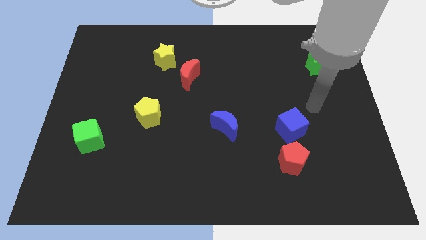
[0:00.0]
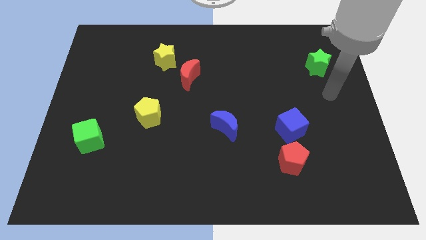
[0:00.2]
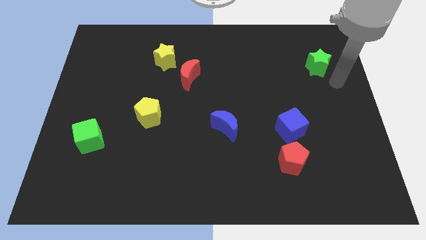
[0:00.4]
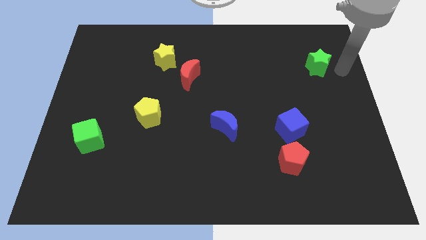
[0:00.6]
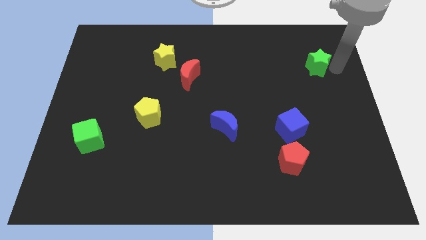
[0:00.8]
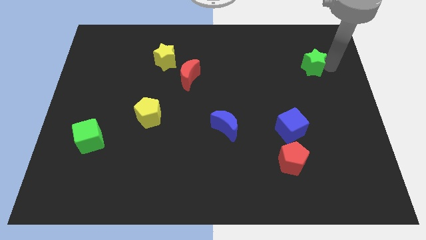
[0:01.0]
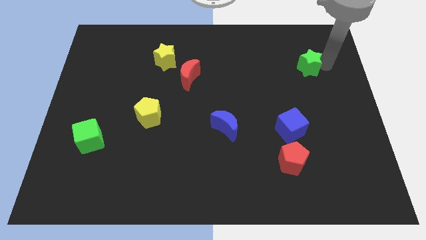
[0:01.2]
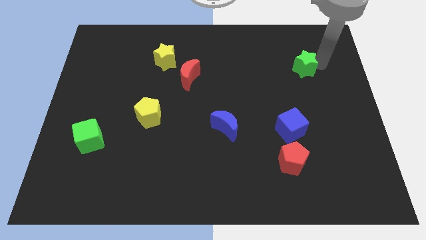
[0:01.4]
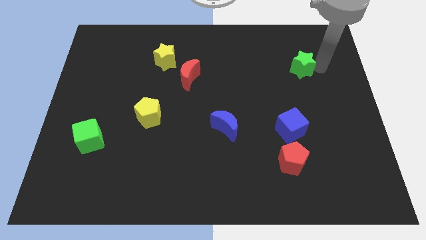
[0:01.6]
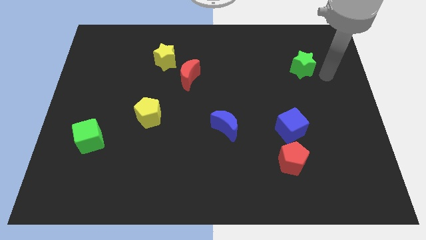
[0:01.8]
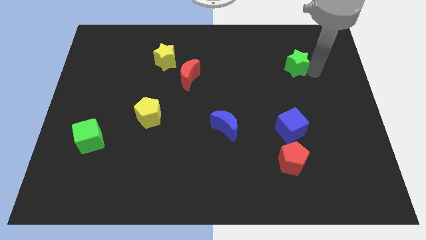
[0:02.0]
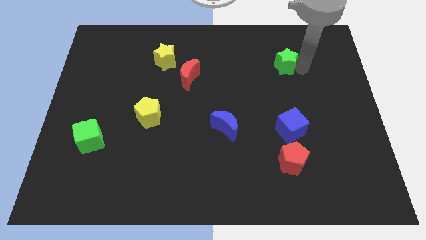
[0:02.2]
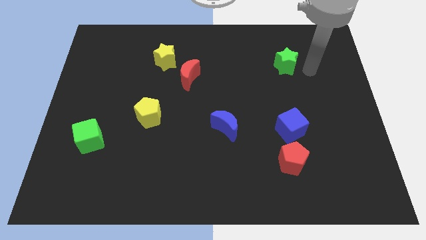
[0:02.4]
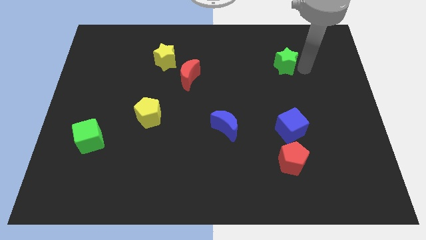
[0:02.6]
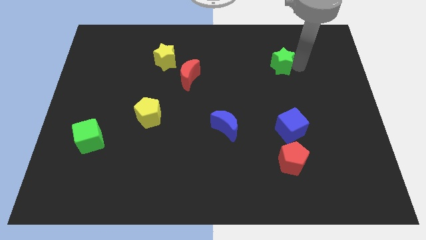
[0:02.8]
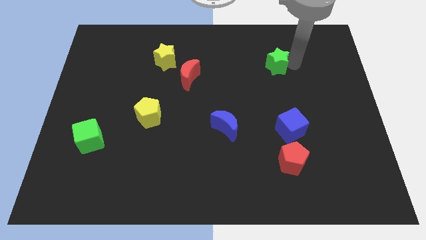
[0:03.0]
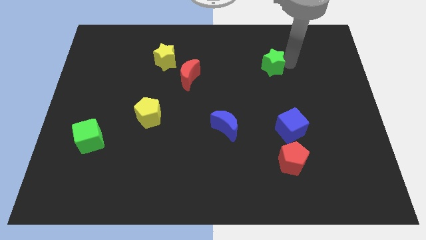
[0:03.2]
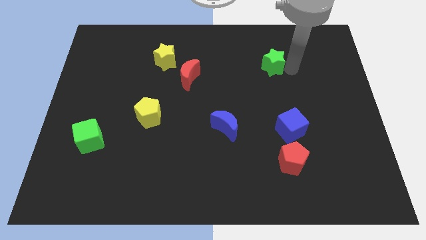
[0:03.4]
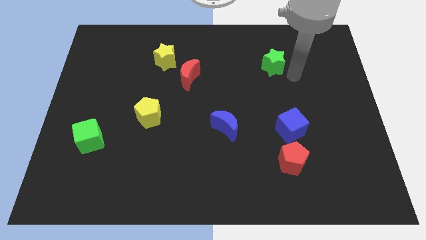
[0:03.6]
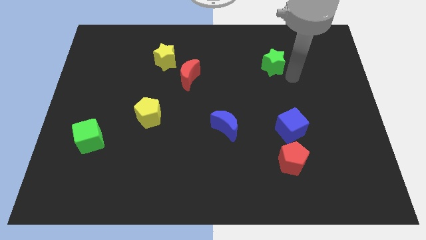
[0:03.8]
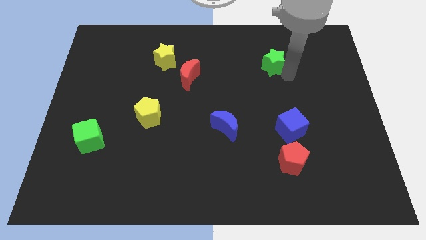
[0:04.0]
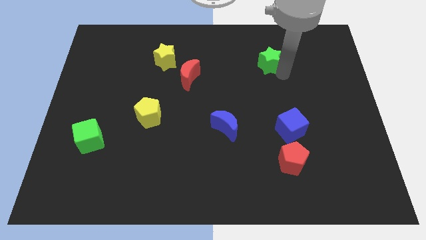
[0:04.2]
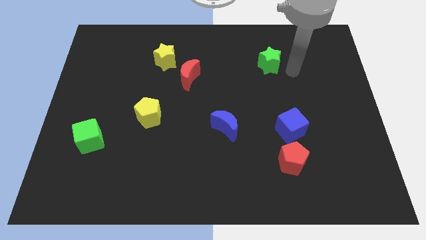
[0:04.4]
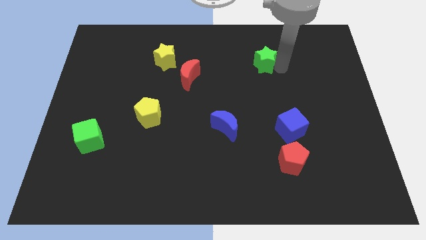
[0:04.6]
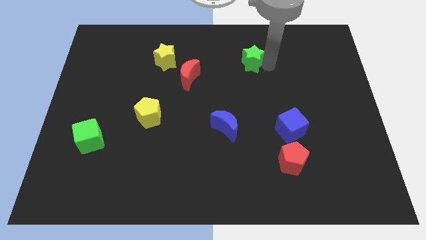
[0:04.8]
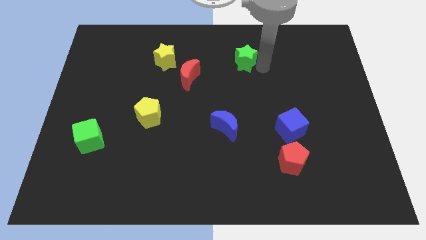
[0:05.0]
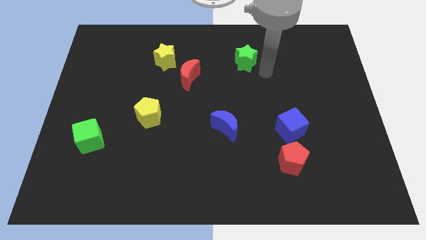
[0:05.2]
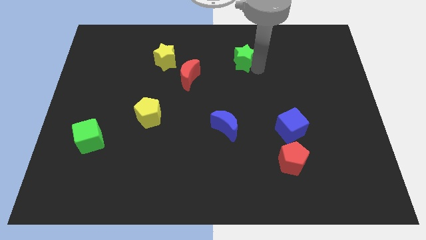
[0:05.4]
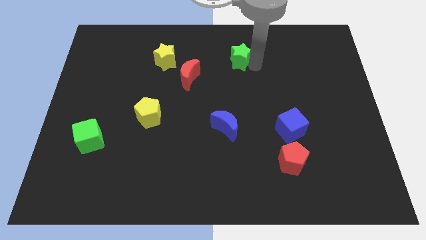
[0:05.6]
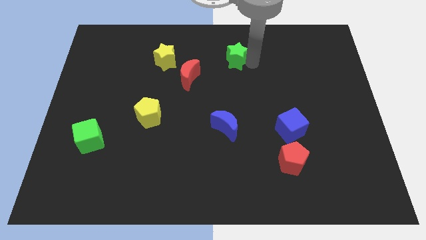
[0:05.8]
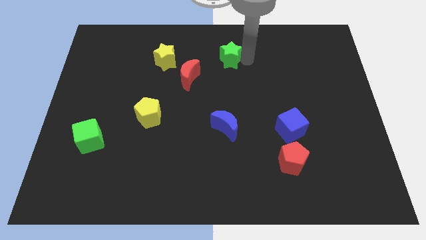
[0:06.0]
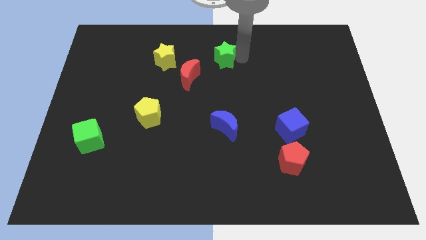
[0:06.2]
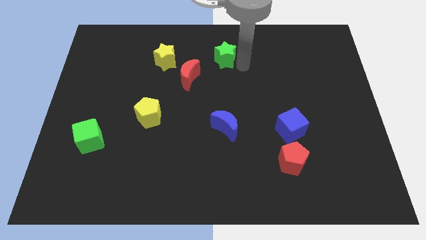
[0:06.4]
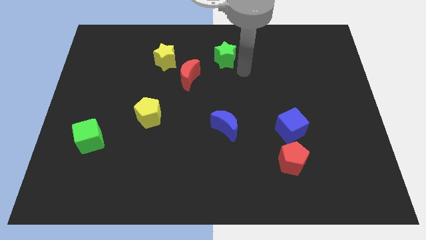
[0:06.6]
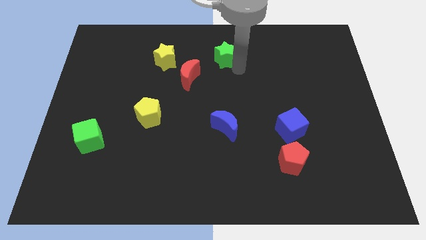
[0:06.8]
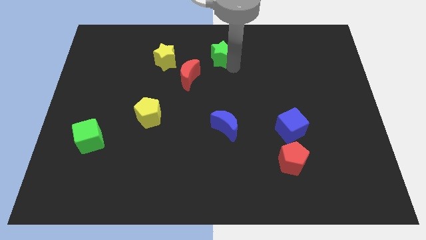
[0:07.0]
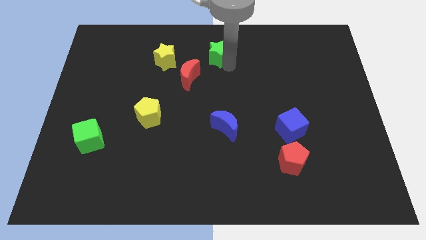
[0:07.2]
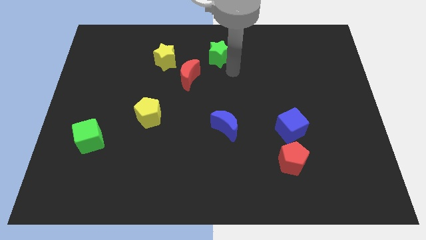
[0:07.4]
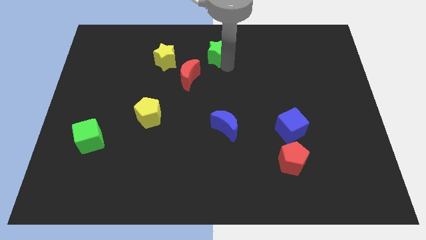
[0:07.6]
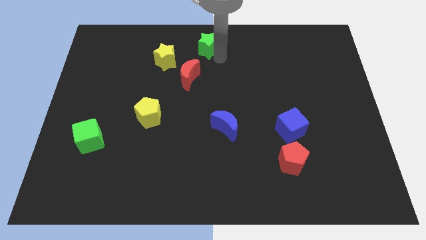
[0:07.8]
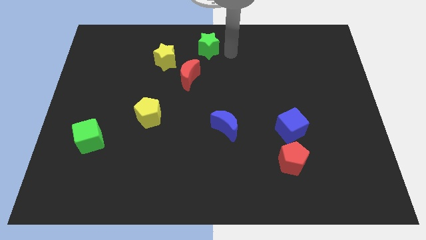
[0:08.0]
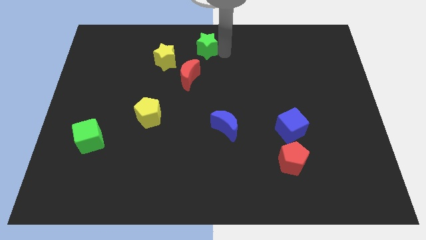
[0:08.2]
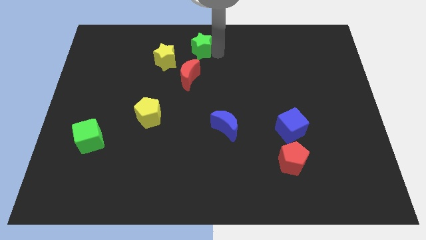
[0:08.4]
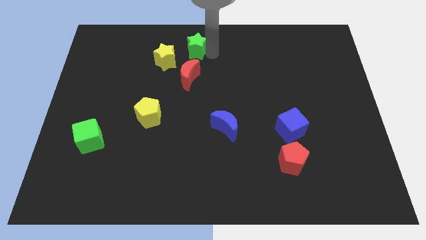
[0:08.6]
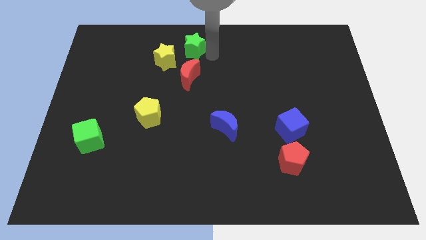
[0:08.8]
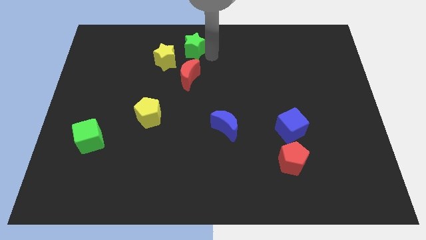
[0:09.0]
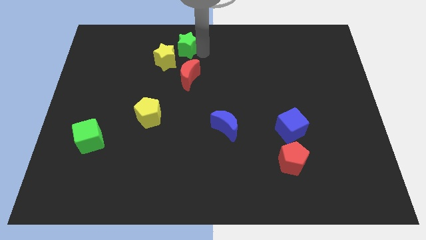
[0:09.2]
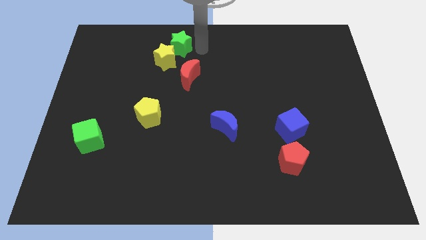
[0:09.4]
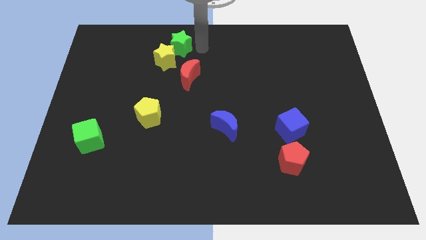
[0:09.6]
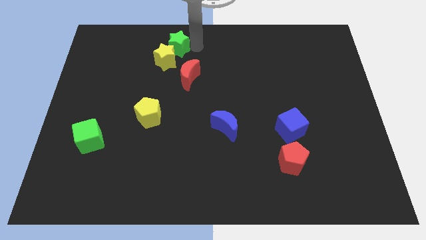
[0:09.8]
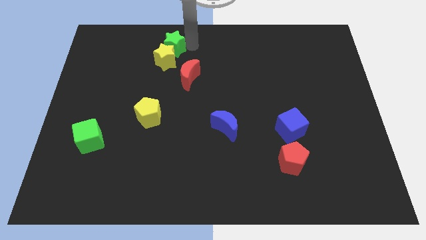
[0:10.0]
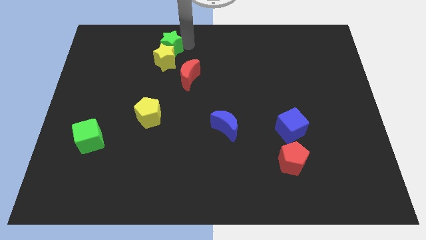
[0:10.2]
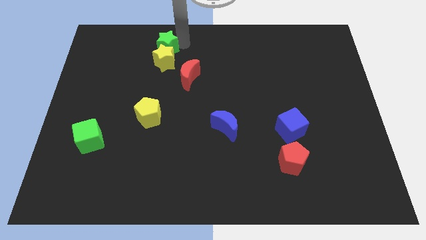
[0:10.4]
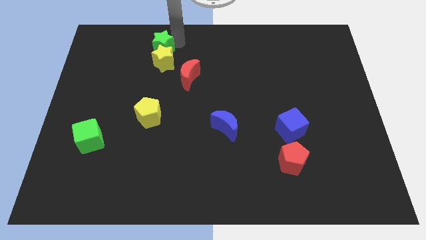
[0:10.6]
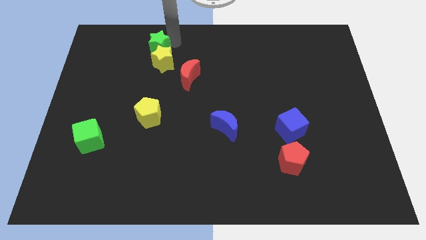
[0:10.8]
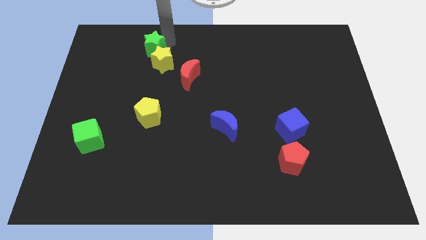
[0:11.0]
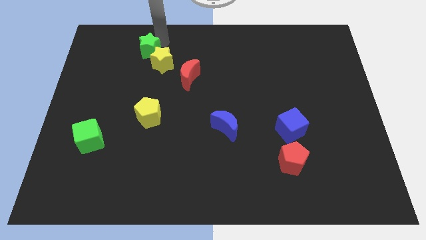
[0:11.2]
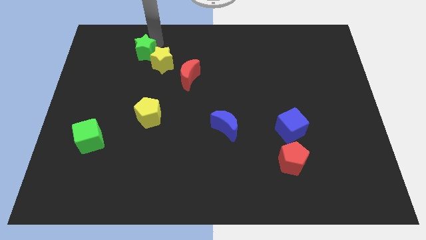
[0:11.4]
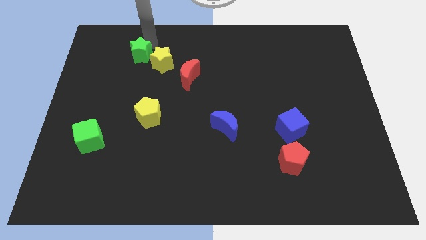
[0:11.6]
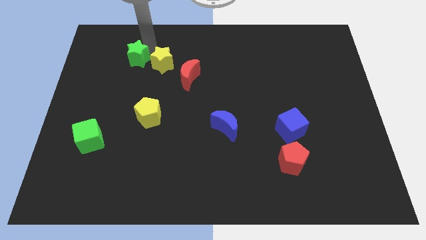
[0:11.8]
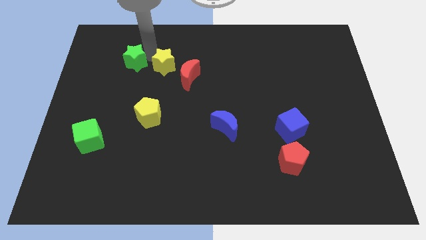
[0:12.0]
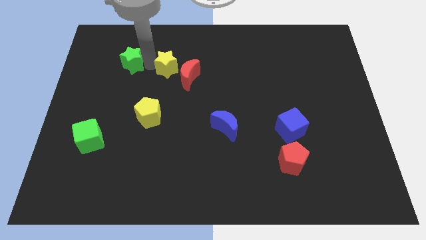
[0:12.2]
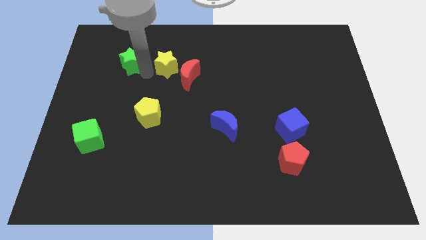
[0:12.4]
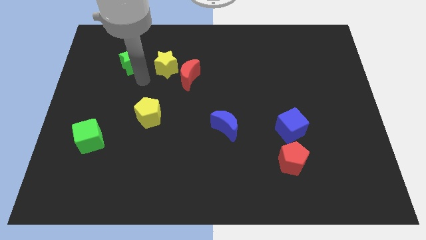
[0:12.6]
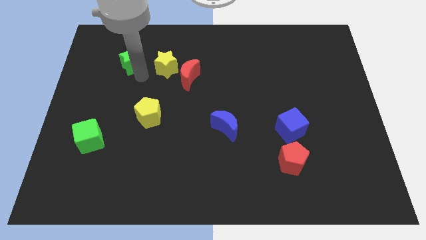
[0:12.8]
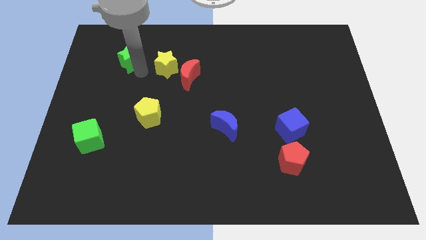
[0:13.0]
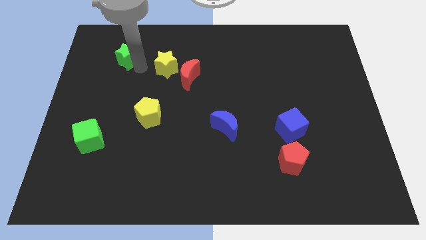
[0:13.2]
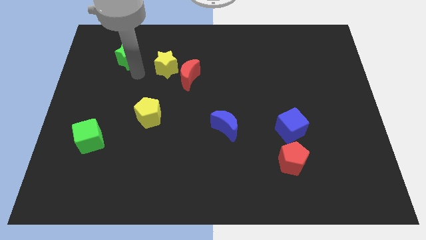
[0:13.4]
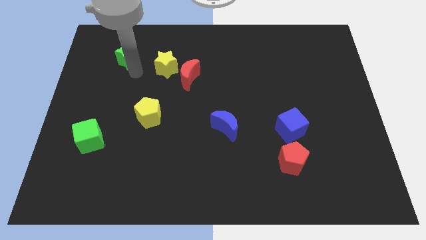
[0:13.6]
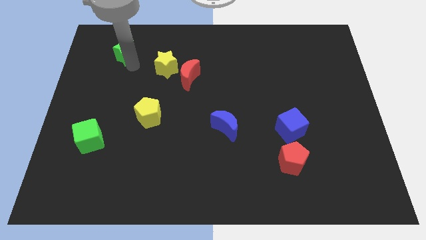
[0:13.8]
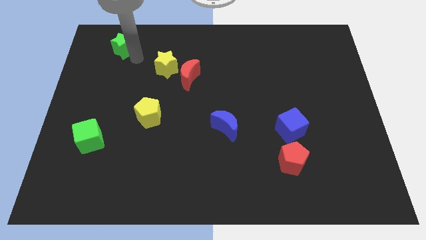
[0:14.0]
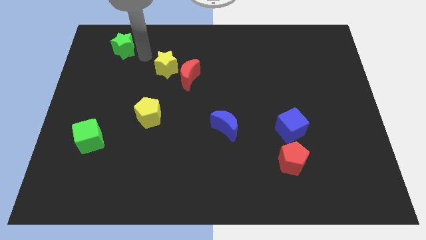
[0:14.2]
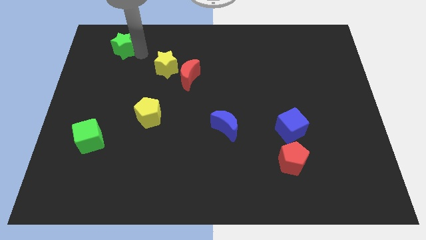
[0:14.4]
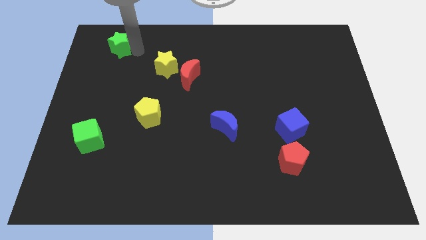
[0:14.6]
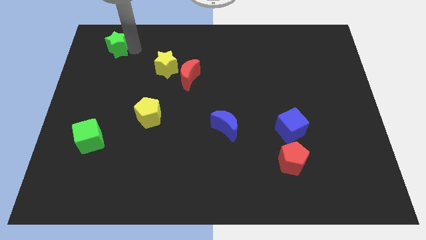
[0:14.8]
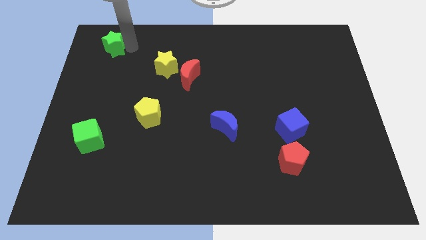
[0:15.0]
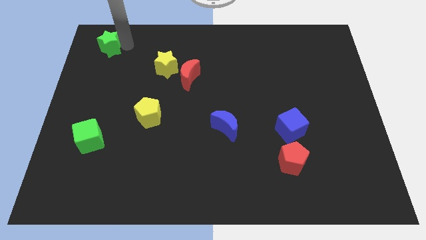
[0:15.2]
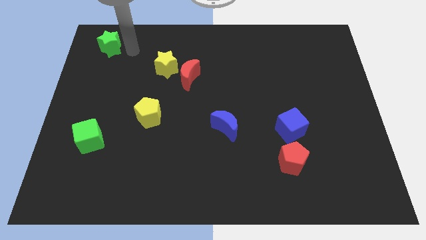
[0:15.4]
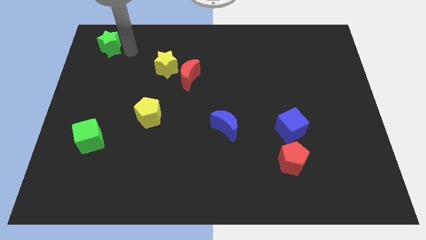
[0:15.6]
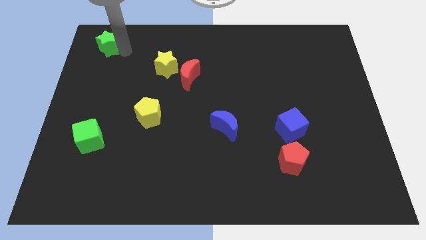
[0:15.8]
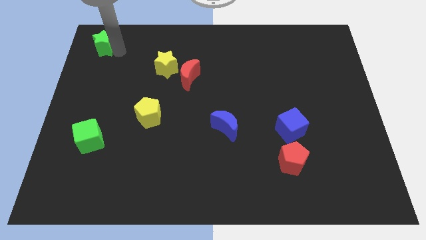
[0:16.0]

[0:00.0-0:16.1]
move the green star to the top left
